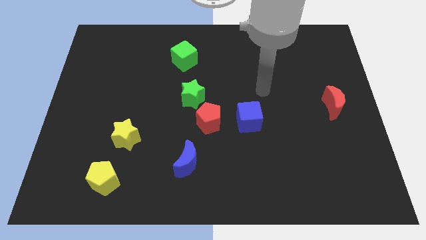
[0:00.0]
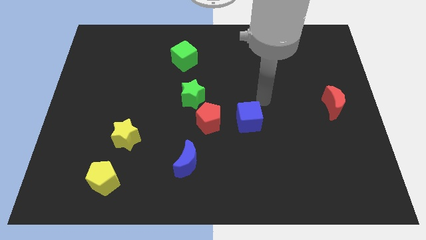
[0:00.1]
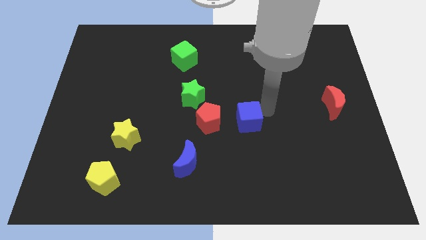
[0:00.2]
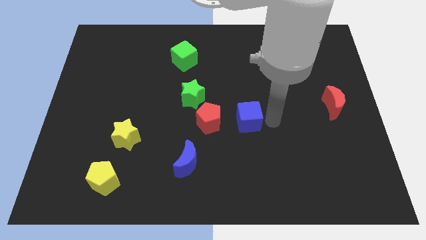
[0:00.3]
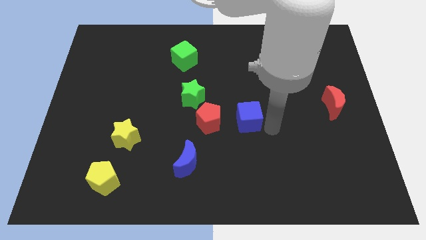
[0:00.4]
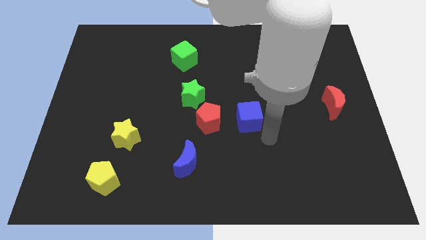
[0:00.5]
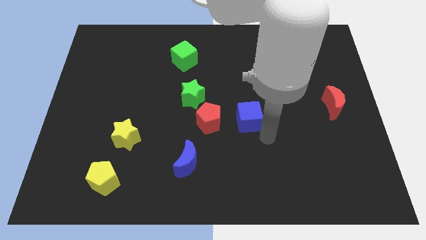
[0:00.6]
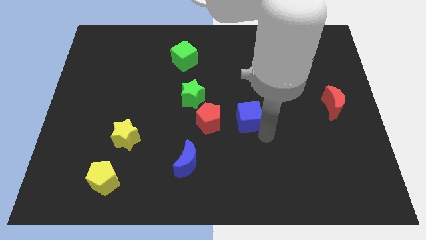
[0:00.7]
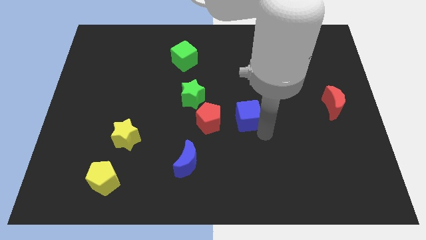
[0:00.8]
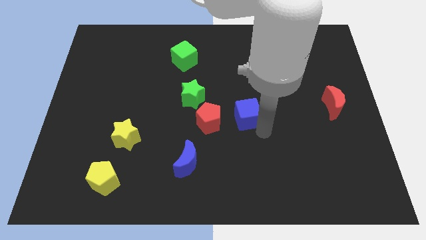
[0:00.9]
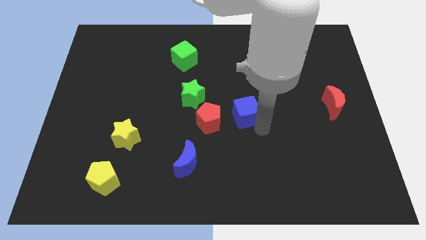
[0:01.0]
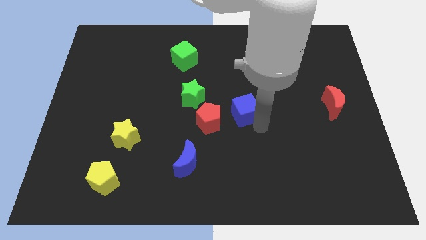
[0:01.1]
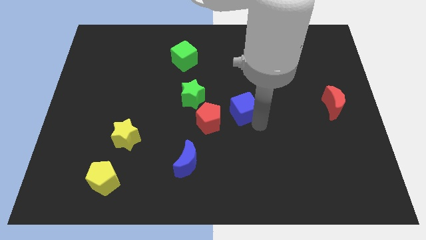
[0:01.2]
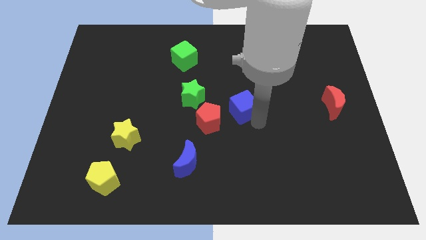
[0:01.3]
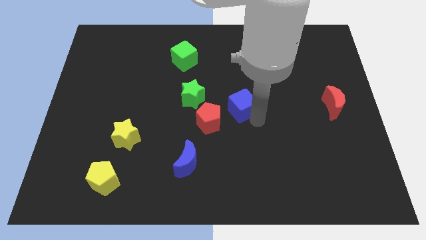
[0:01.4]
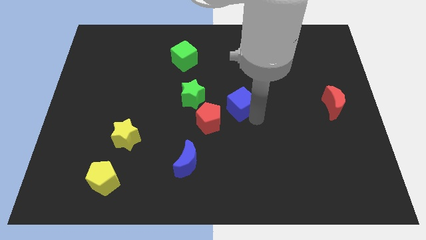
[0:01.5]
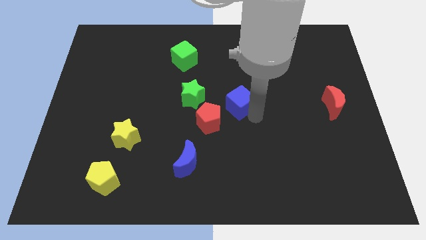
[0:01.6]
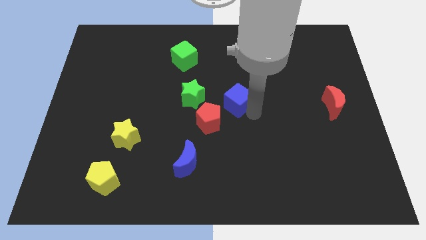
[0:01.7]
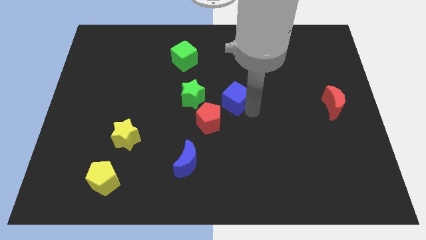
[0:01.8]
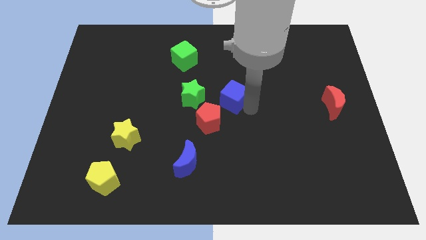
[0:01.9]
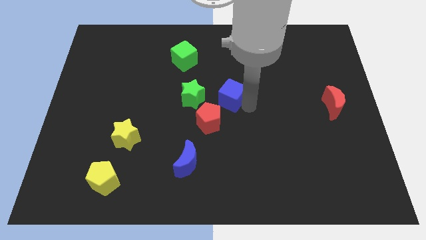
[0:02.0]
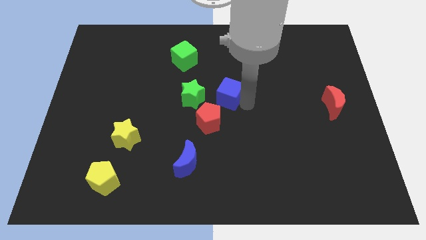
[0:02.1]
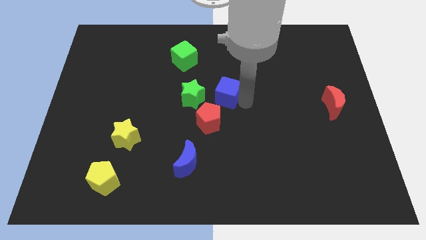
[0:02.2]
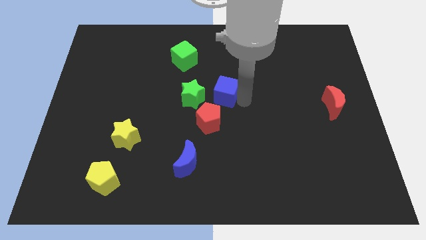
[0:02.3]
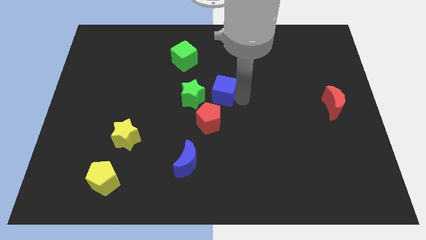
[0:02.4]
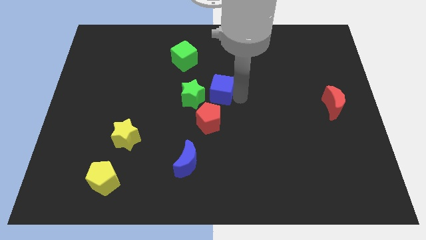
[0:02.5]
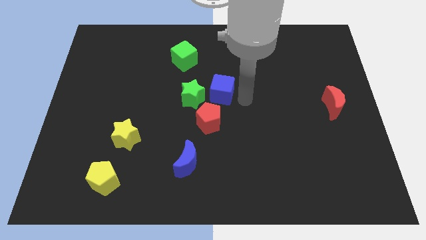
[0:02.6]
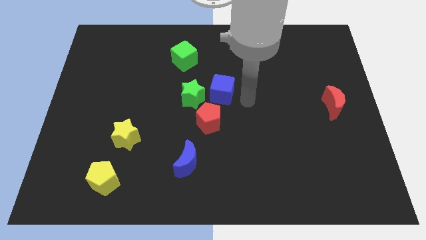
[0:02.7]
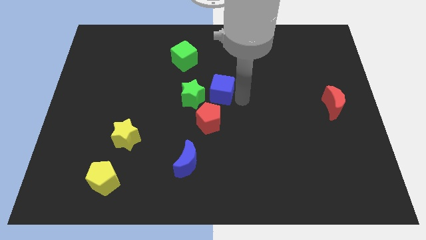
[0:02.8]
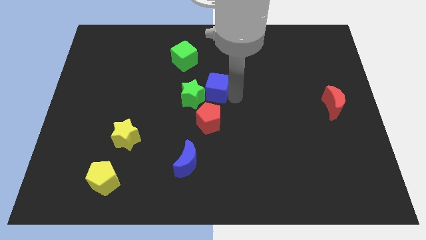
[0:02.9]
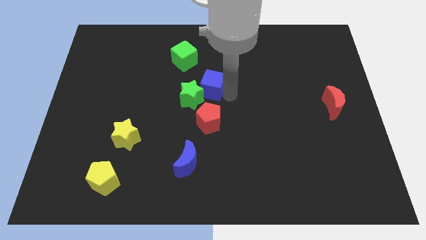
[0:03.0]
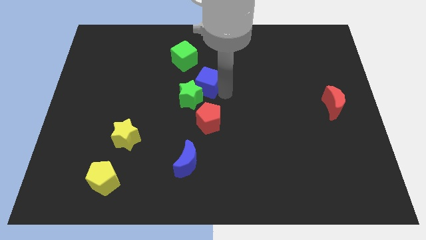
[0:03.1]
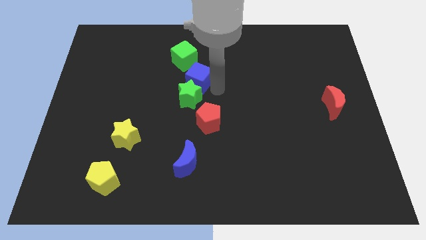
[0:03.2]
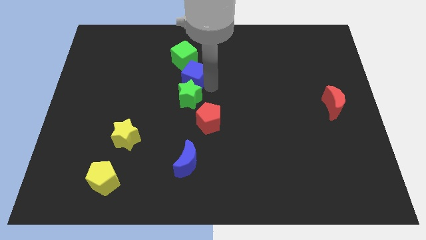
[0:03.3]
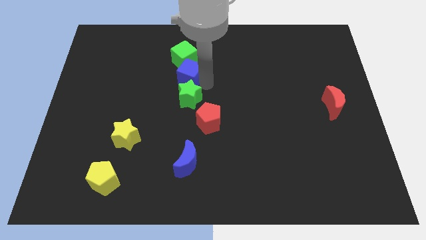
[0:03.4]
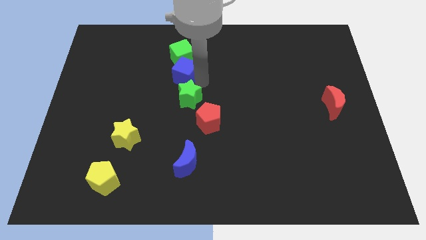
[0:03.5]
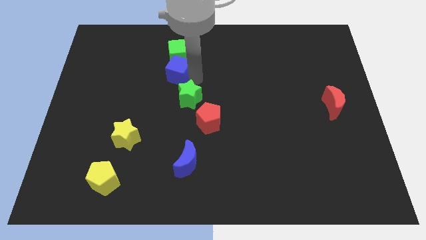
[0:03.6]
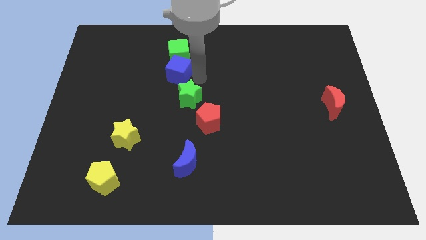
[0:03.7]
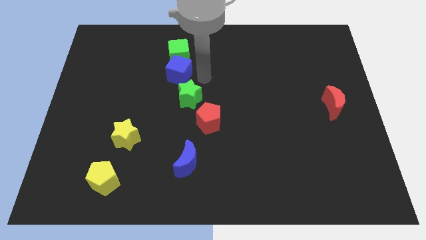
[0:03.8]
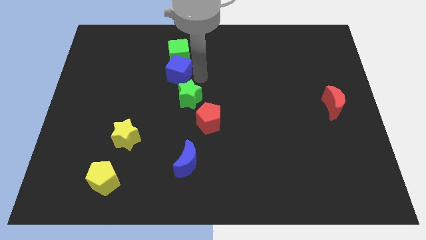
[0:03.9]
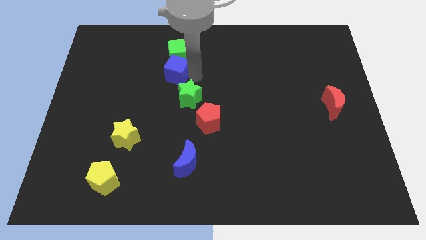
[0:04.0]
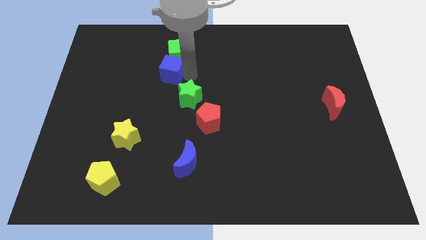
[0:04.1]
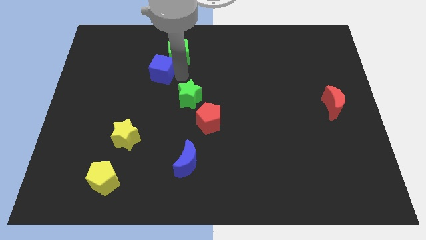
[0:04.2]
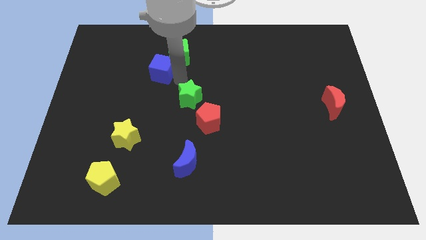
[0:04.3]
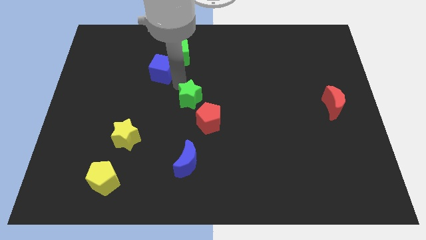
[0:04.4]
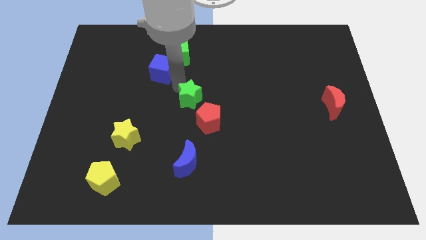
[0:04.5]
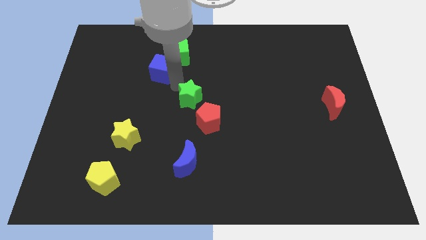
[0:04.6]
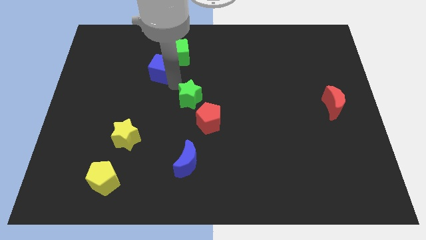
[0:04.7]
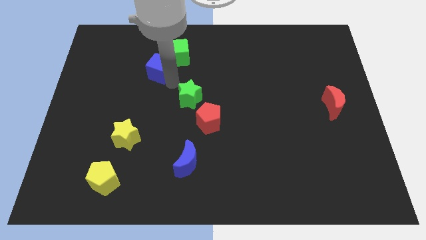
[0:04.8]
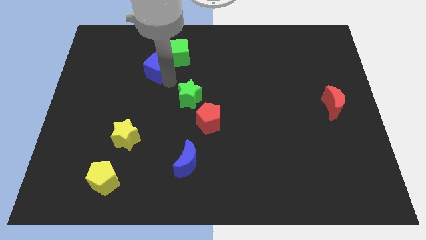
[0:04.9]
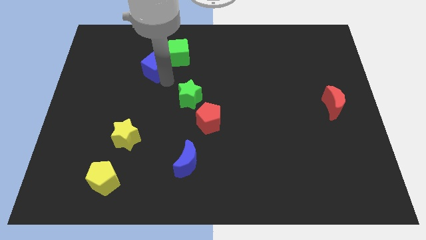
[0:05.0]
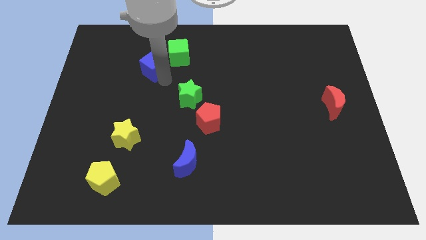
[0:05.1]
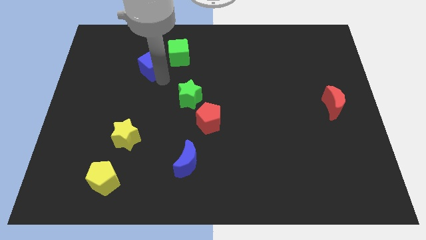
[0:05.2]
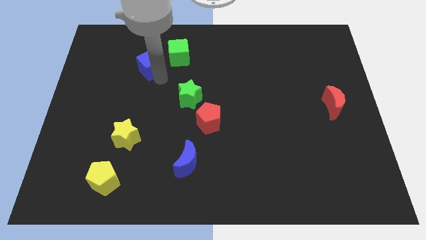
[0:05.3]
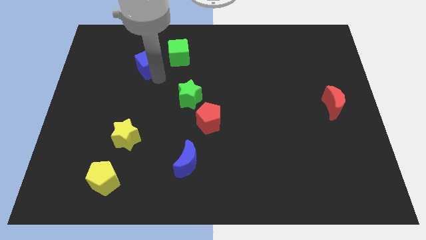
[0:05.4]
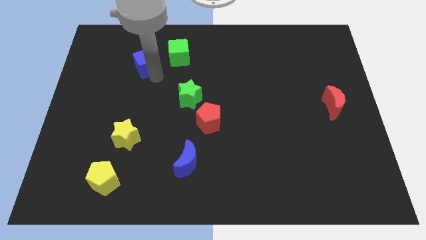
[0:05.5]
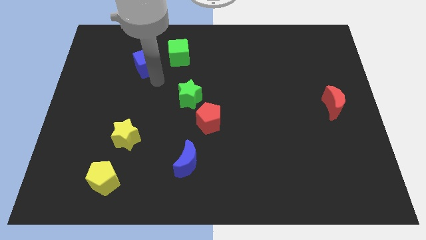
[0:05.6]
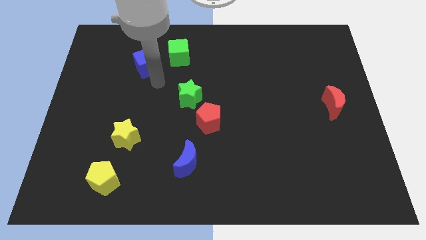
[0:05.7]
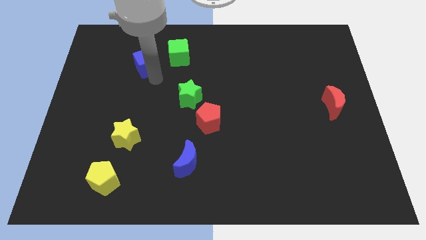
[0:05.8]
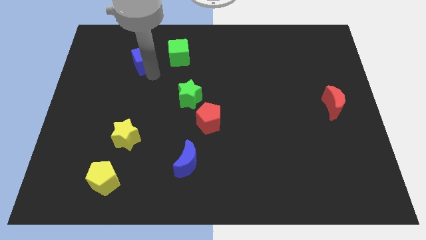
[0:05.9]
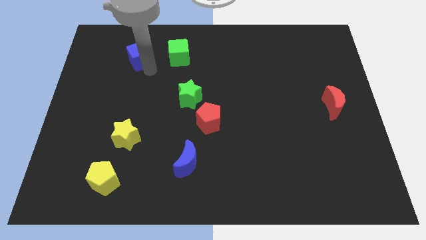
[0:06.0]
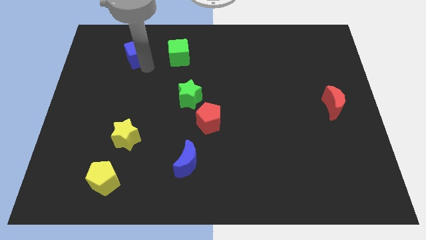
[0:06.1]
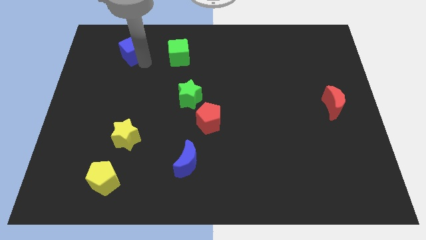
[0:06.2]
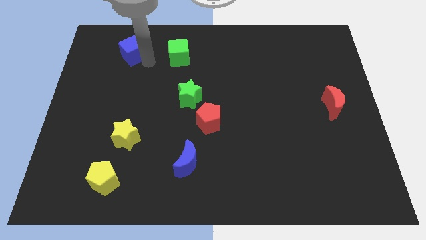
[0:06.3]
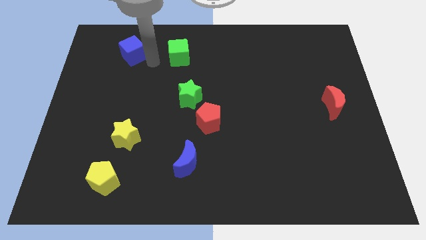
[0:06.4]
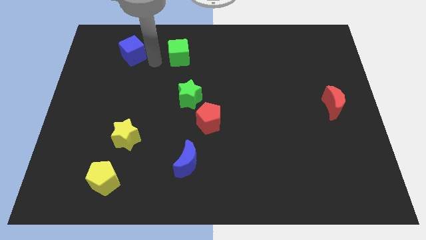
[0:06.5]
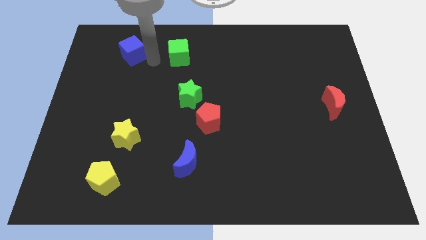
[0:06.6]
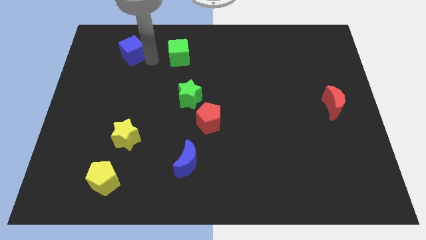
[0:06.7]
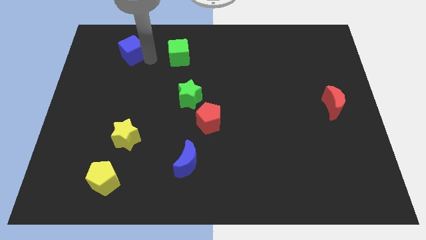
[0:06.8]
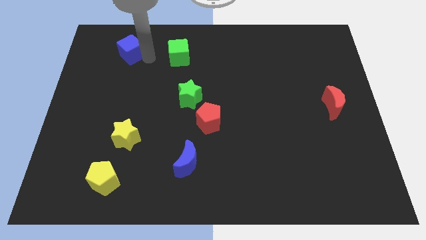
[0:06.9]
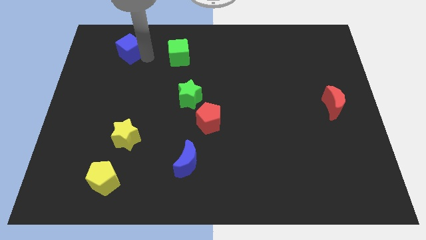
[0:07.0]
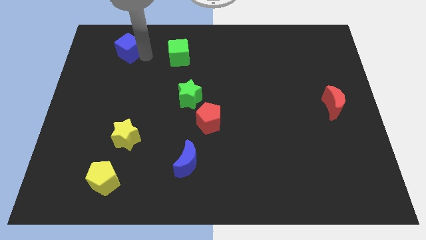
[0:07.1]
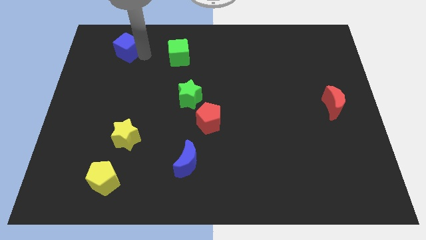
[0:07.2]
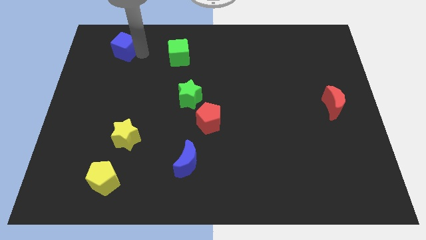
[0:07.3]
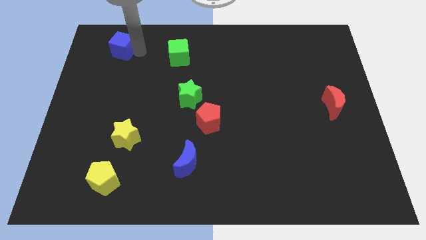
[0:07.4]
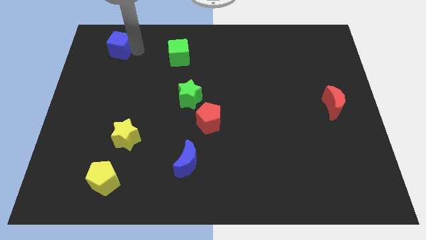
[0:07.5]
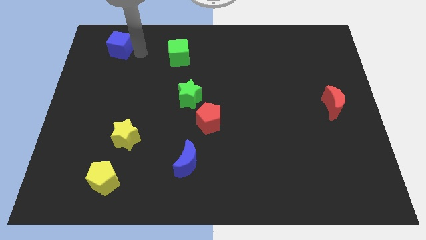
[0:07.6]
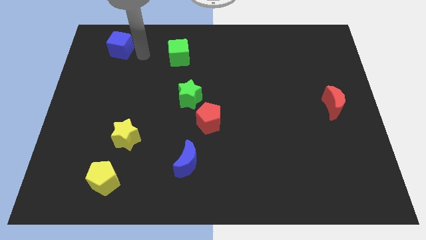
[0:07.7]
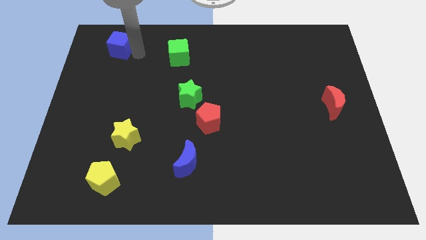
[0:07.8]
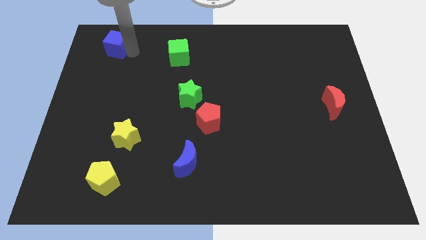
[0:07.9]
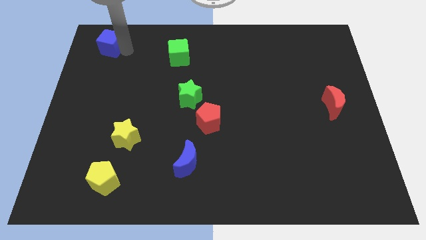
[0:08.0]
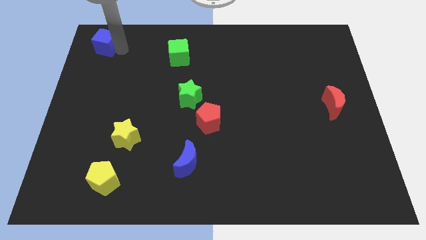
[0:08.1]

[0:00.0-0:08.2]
put the blue cube to the top left
